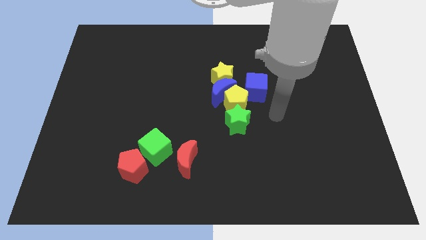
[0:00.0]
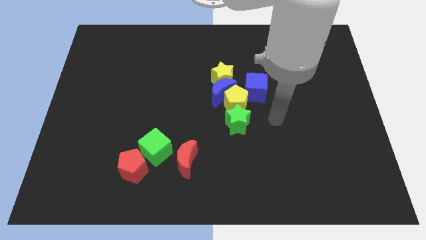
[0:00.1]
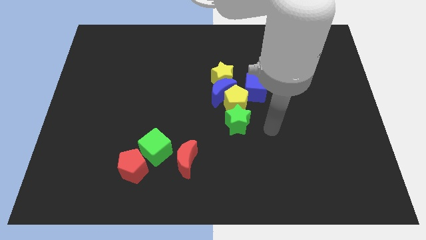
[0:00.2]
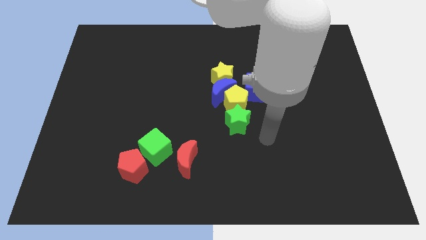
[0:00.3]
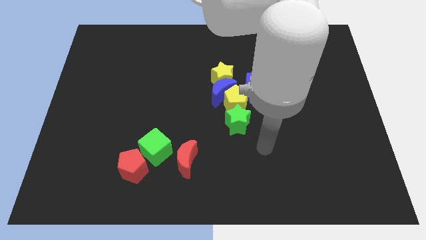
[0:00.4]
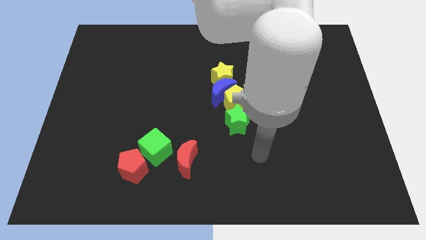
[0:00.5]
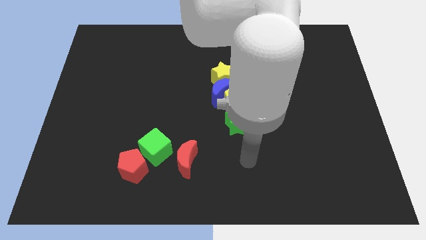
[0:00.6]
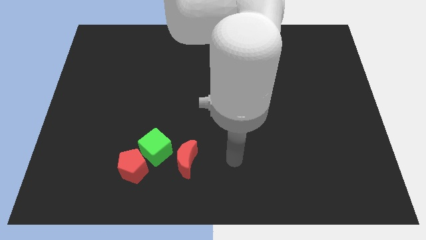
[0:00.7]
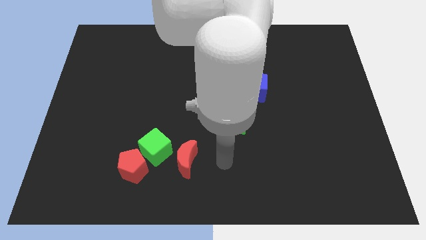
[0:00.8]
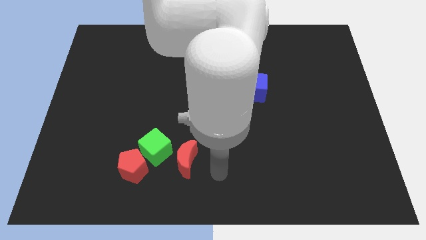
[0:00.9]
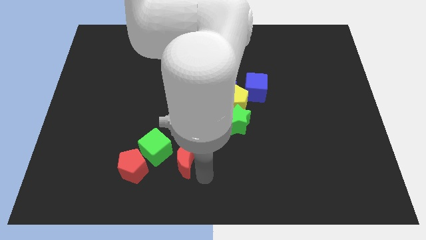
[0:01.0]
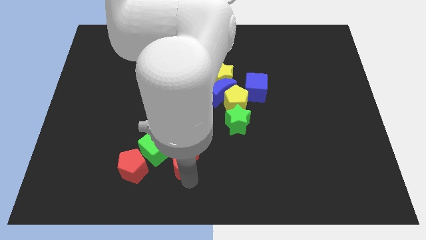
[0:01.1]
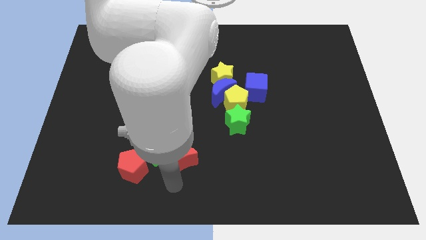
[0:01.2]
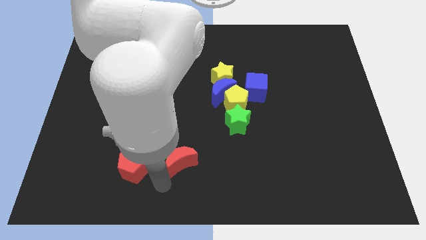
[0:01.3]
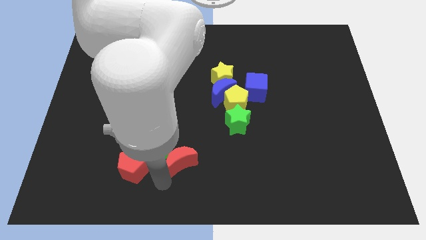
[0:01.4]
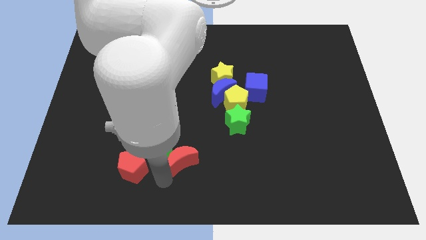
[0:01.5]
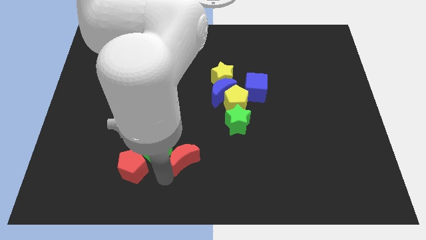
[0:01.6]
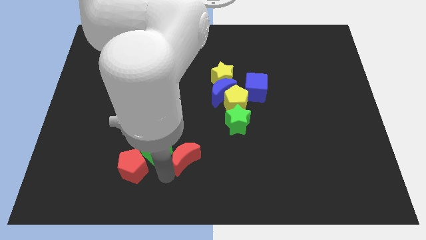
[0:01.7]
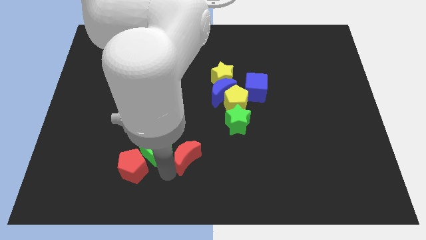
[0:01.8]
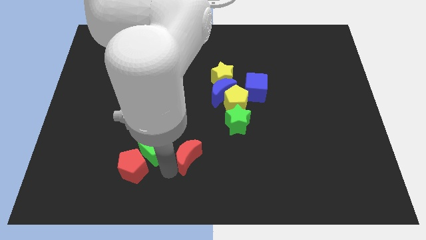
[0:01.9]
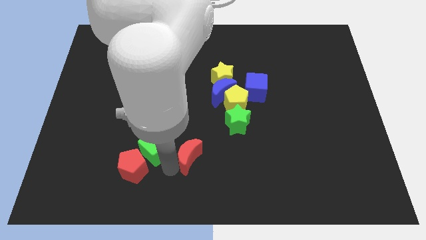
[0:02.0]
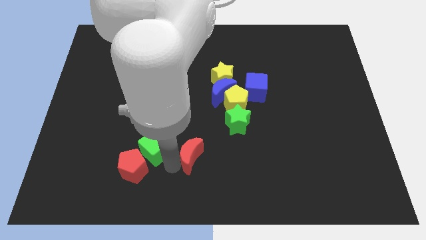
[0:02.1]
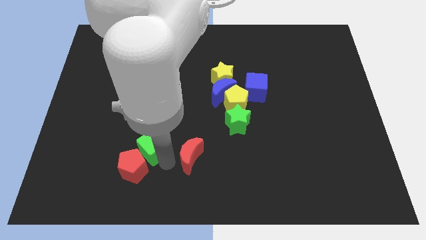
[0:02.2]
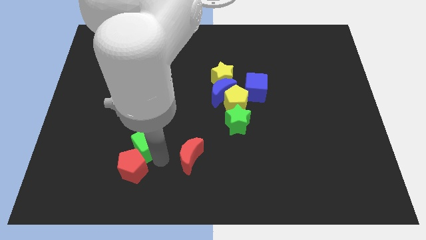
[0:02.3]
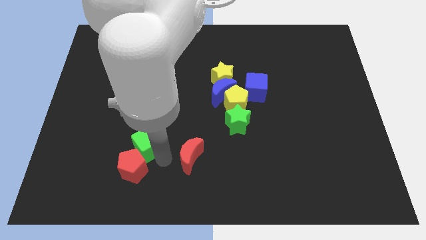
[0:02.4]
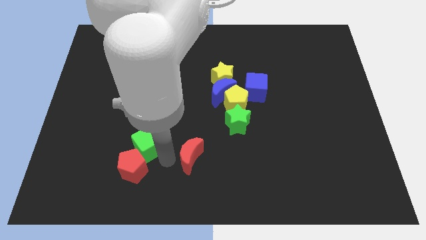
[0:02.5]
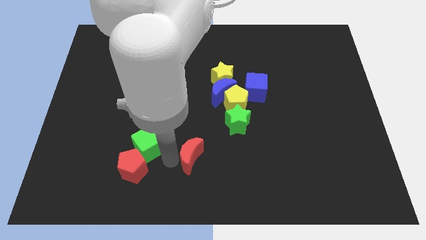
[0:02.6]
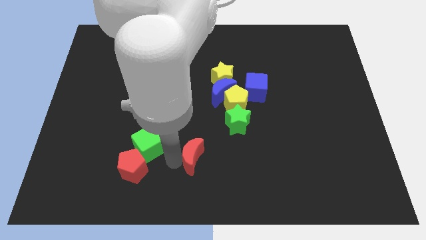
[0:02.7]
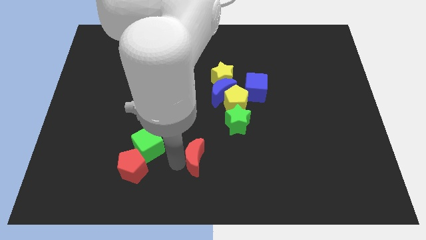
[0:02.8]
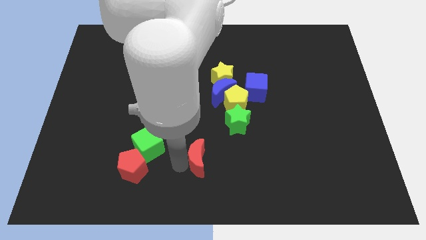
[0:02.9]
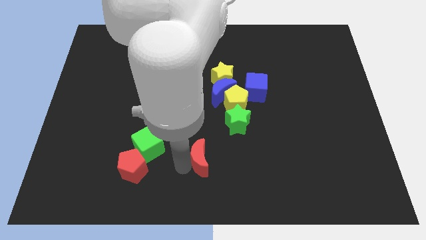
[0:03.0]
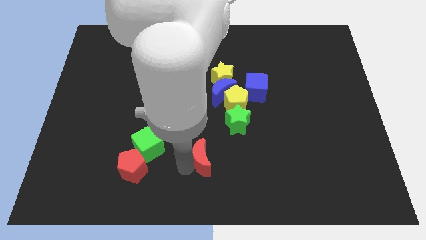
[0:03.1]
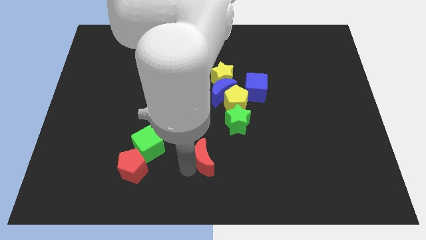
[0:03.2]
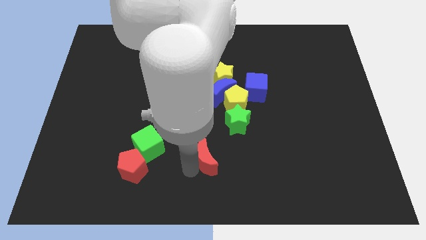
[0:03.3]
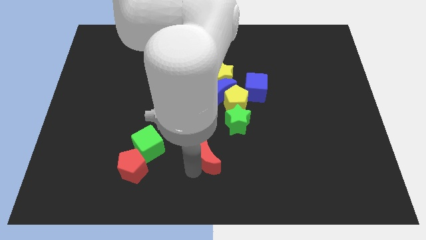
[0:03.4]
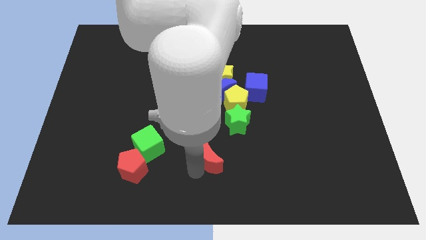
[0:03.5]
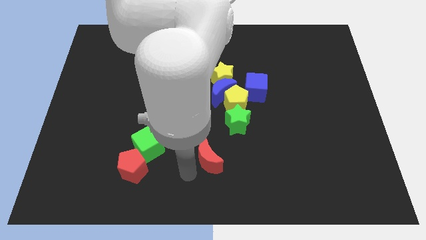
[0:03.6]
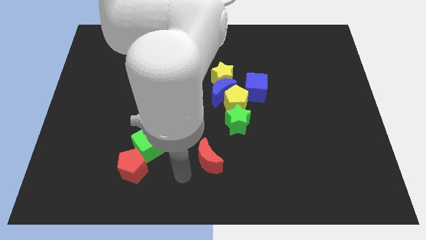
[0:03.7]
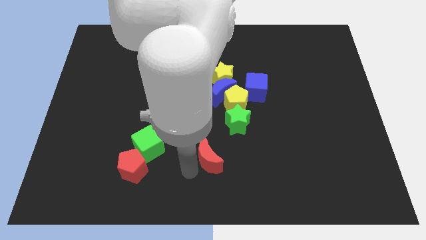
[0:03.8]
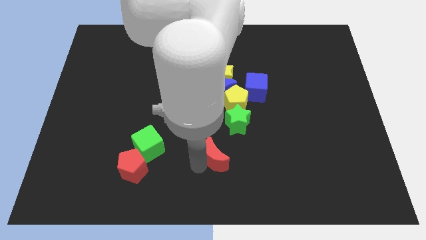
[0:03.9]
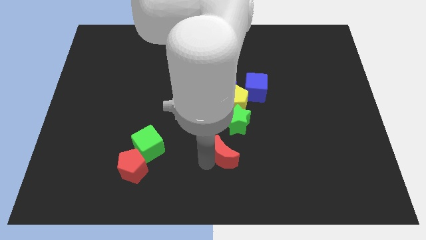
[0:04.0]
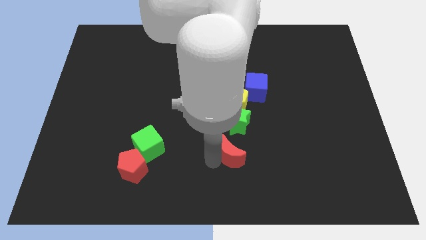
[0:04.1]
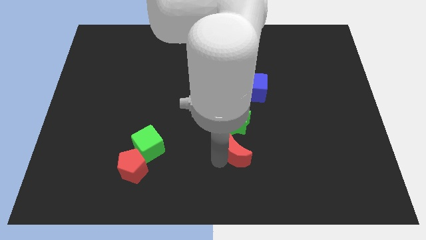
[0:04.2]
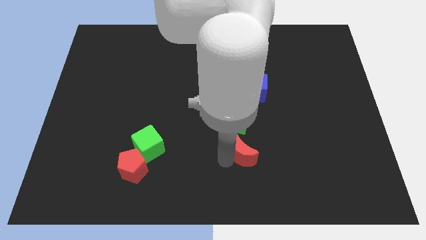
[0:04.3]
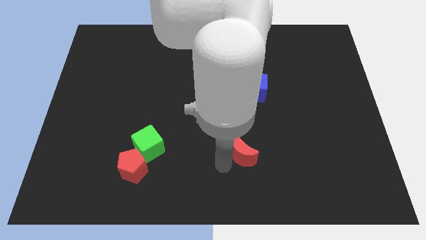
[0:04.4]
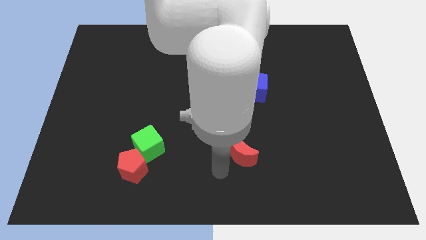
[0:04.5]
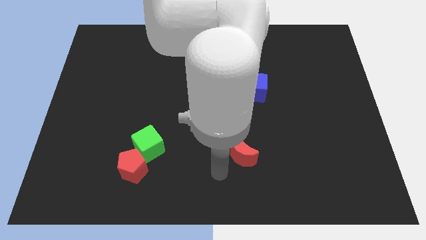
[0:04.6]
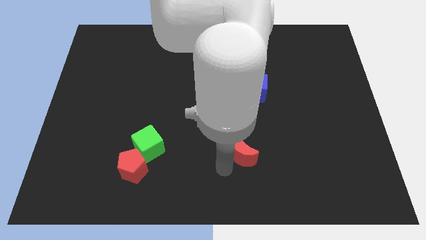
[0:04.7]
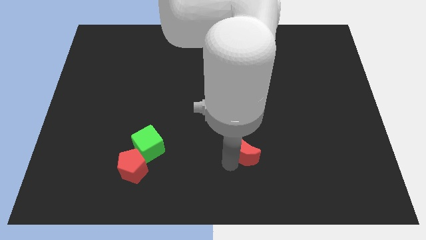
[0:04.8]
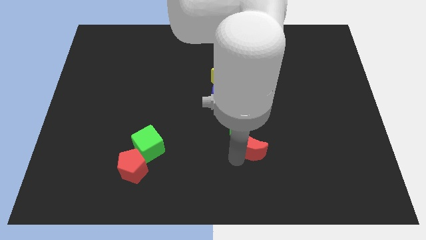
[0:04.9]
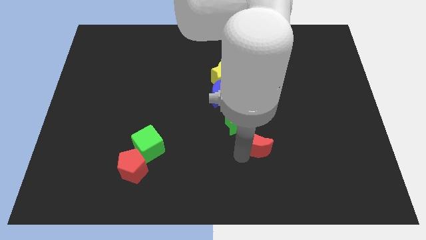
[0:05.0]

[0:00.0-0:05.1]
push the red moon to the bottom of the blue cube

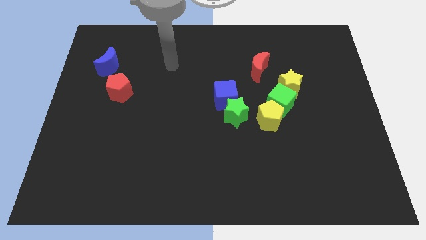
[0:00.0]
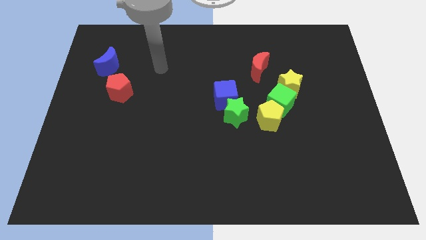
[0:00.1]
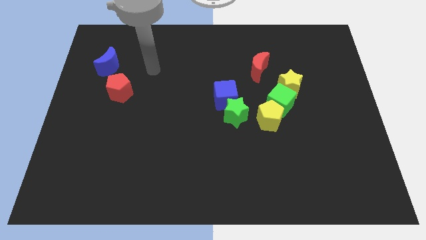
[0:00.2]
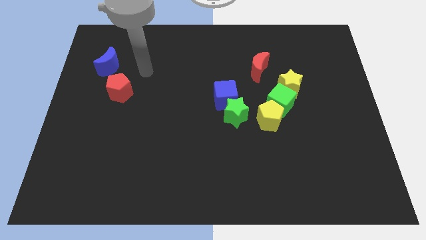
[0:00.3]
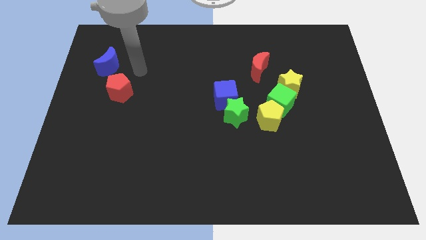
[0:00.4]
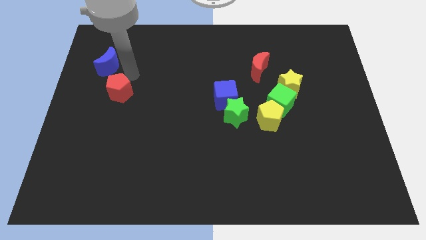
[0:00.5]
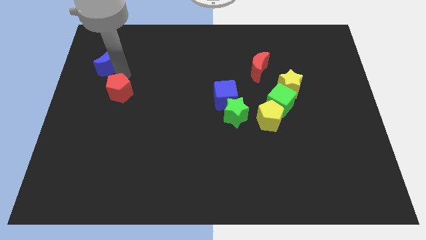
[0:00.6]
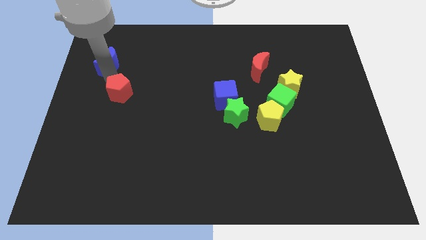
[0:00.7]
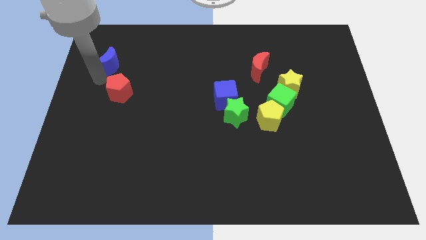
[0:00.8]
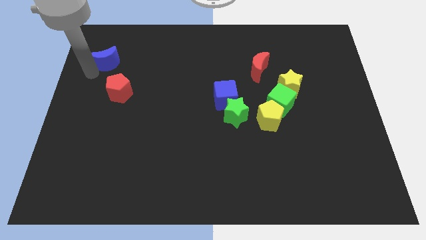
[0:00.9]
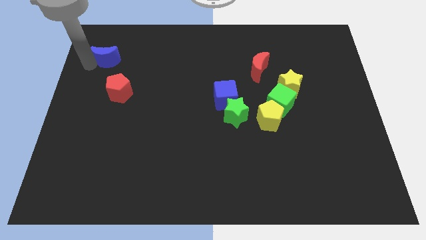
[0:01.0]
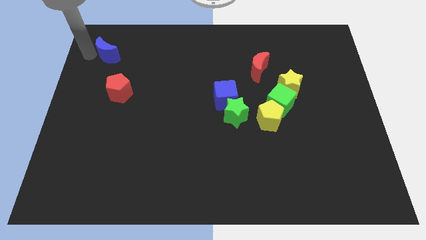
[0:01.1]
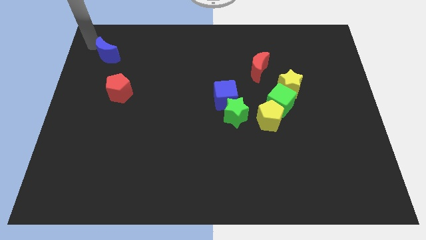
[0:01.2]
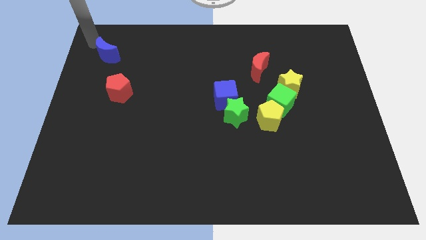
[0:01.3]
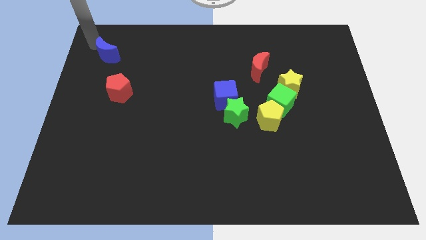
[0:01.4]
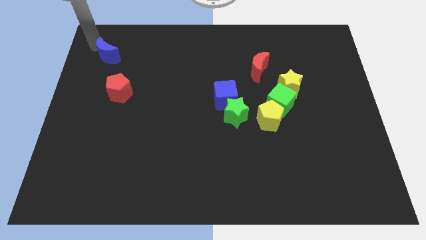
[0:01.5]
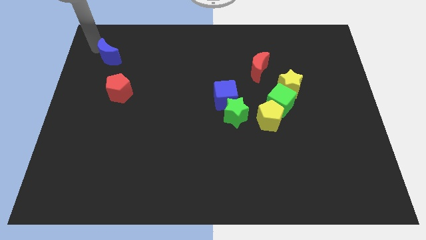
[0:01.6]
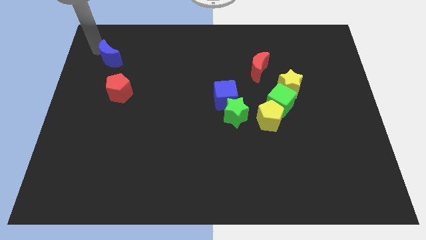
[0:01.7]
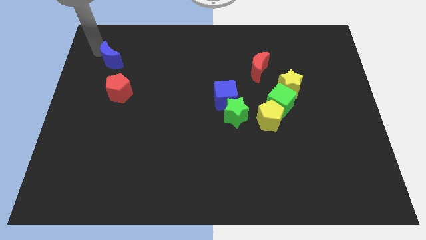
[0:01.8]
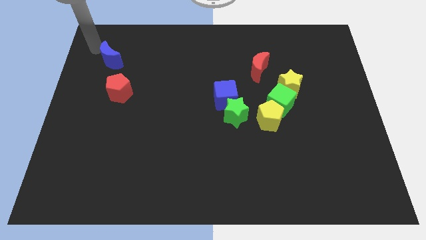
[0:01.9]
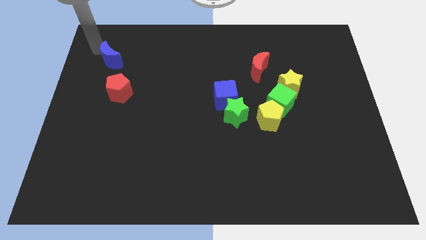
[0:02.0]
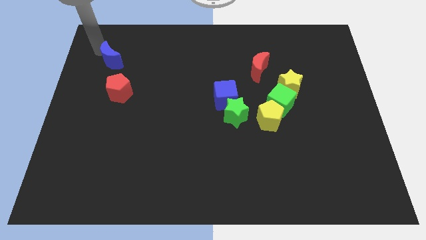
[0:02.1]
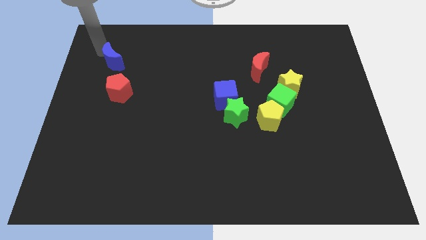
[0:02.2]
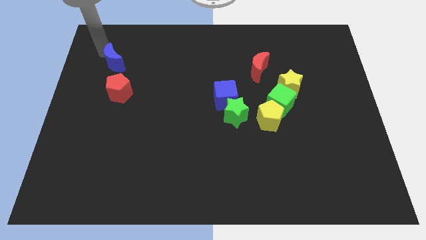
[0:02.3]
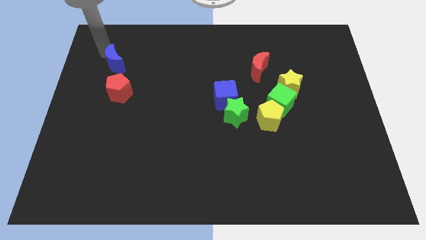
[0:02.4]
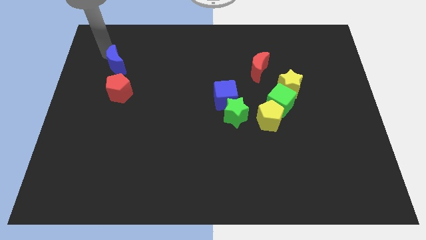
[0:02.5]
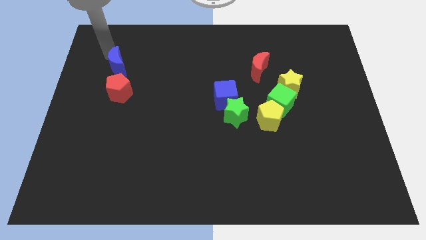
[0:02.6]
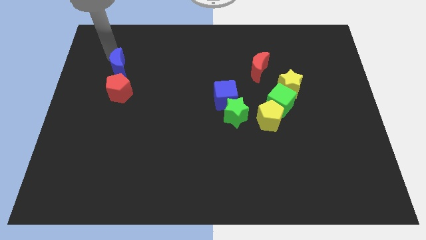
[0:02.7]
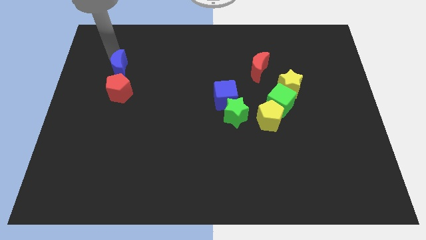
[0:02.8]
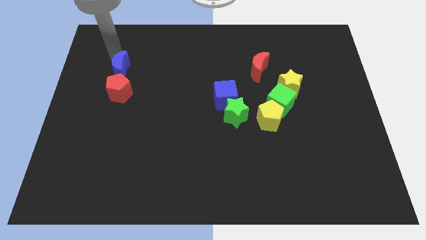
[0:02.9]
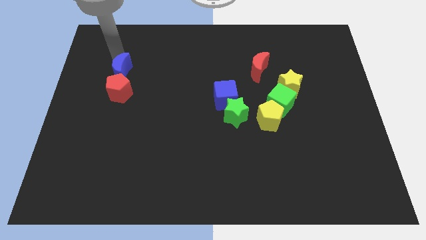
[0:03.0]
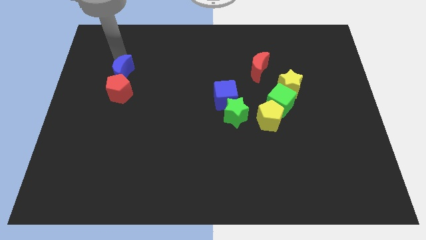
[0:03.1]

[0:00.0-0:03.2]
slide the blue moon to the top right side of the red pentagon
